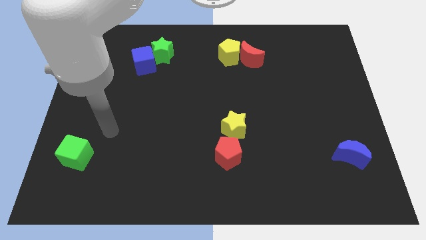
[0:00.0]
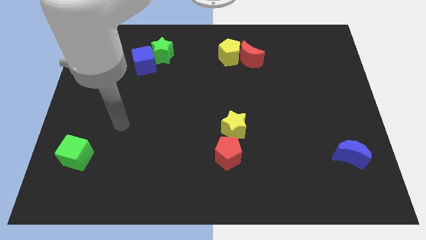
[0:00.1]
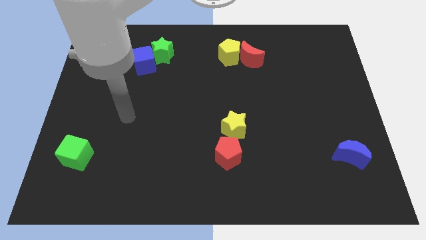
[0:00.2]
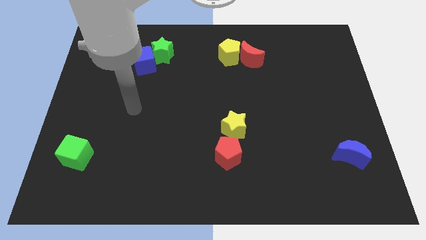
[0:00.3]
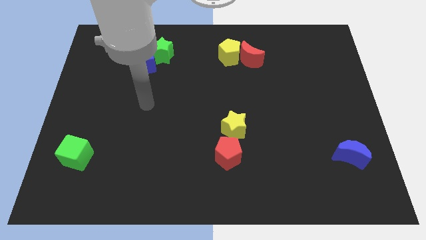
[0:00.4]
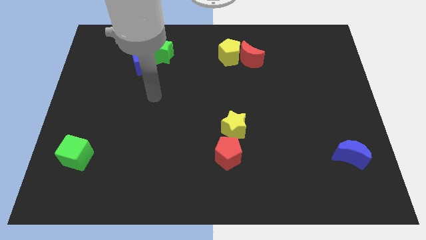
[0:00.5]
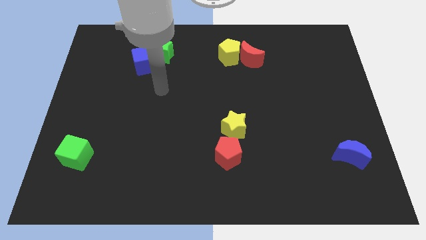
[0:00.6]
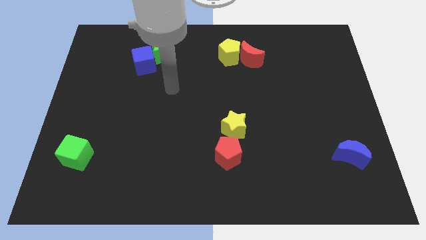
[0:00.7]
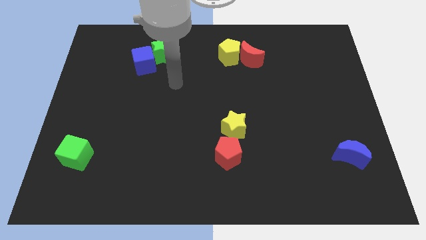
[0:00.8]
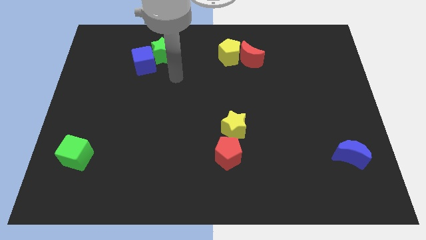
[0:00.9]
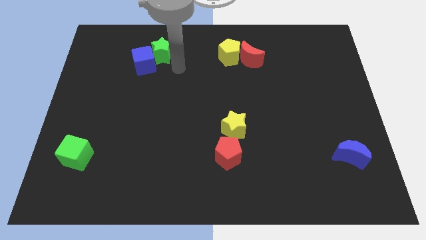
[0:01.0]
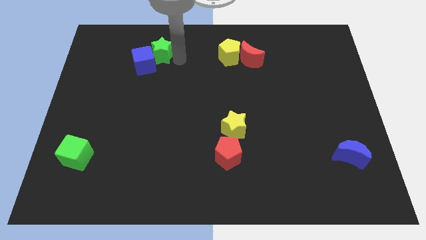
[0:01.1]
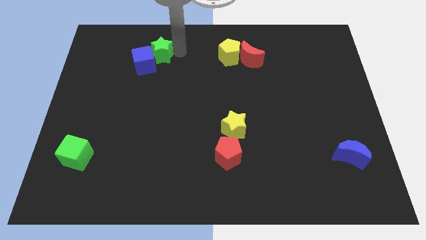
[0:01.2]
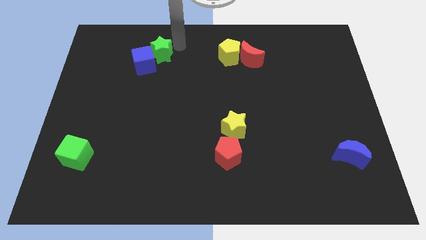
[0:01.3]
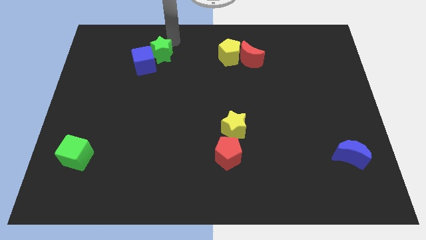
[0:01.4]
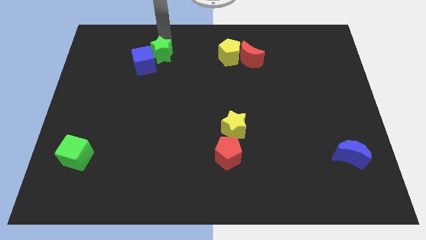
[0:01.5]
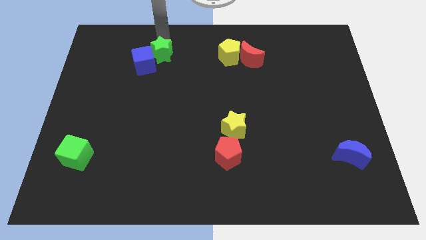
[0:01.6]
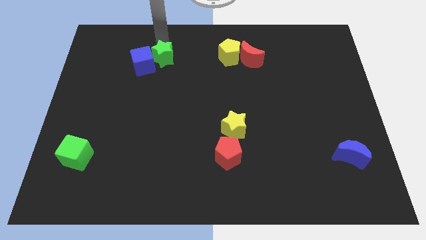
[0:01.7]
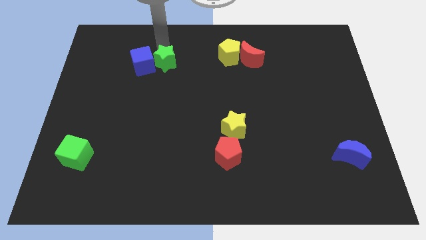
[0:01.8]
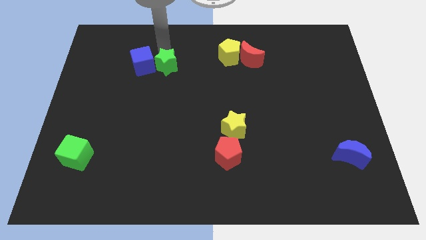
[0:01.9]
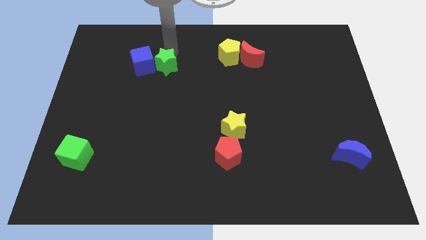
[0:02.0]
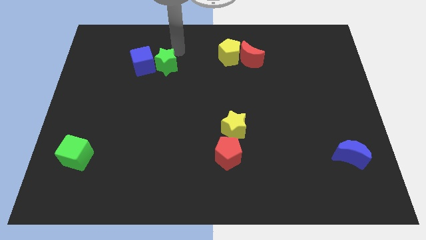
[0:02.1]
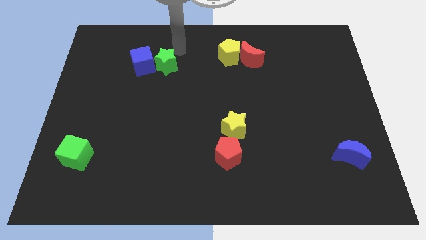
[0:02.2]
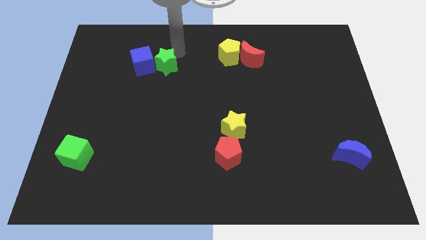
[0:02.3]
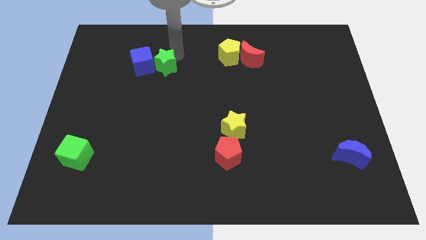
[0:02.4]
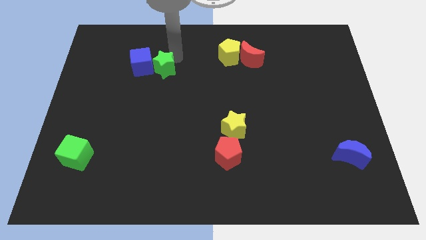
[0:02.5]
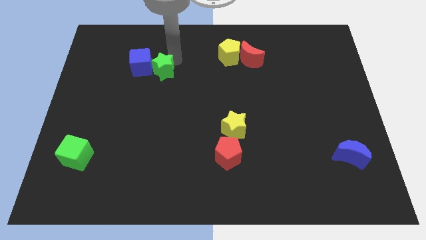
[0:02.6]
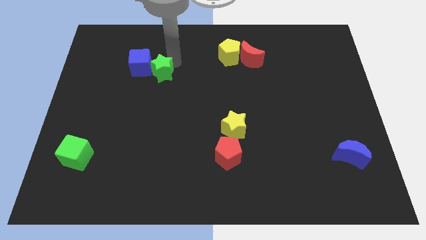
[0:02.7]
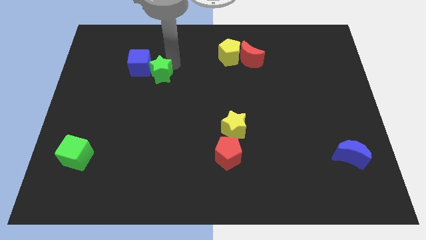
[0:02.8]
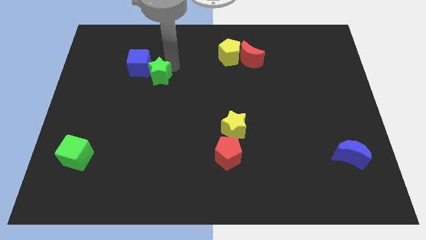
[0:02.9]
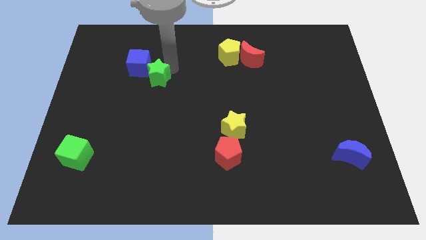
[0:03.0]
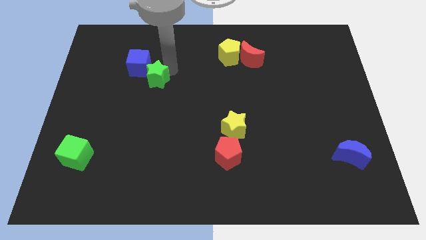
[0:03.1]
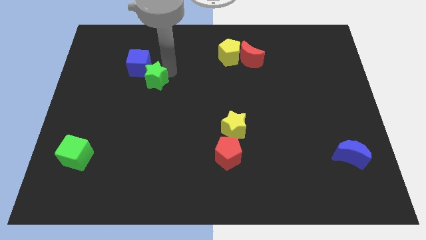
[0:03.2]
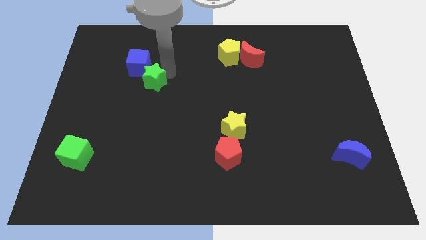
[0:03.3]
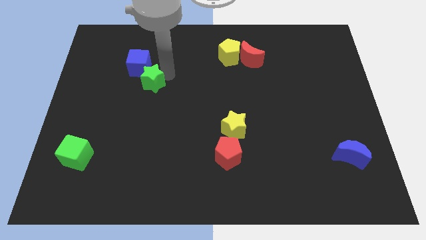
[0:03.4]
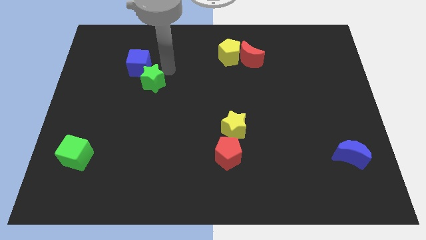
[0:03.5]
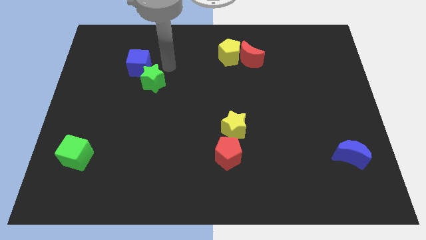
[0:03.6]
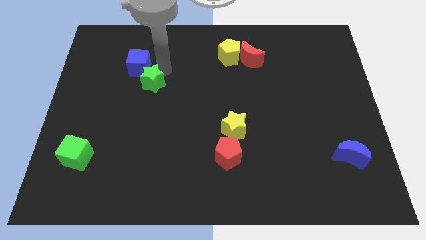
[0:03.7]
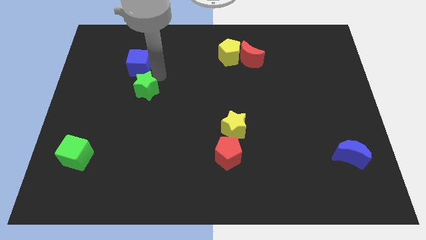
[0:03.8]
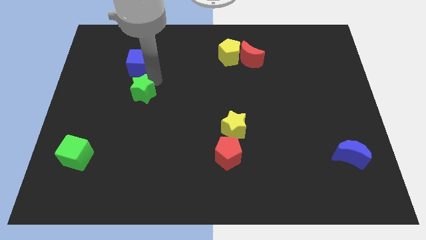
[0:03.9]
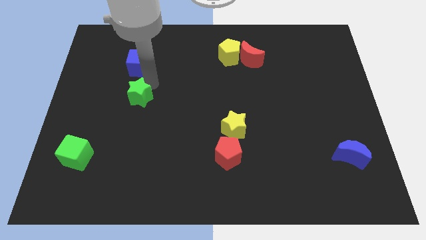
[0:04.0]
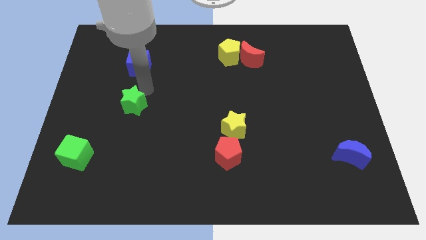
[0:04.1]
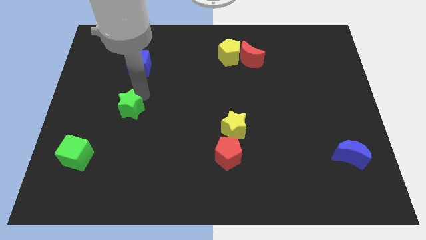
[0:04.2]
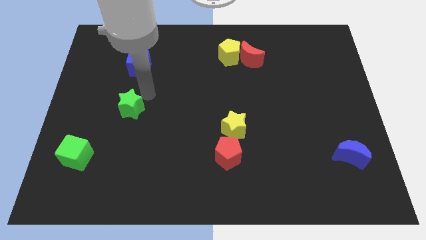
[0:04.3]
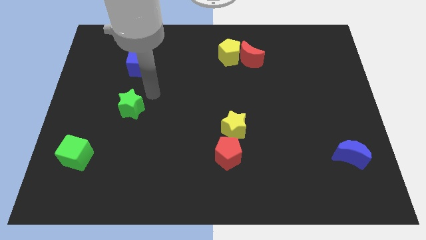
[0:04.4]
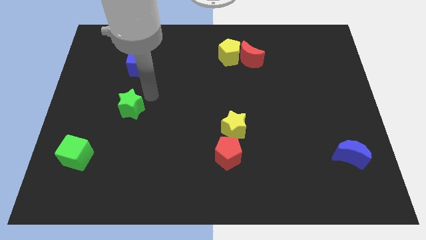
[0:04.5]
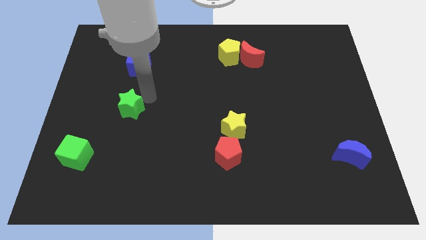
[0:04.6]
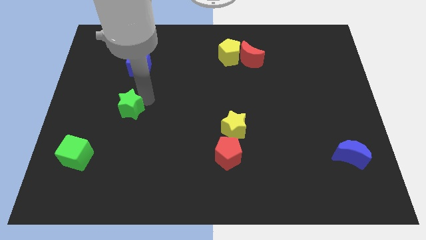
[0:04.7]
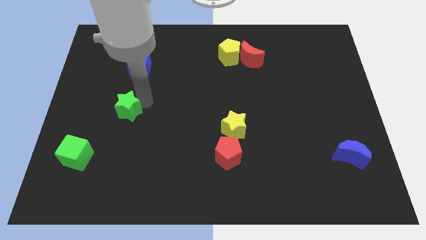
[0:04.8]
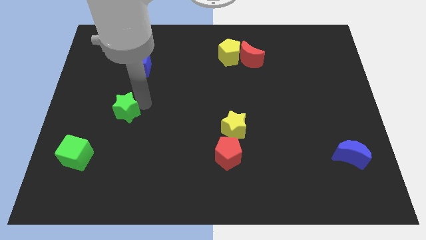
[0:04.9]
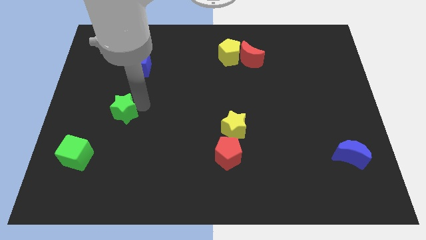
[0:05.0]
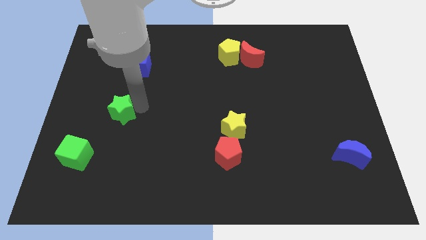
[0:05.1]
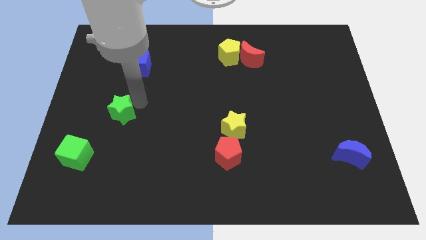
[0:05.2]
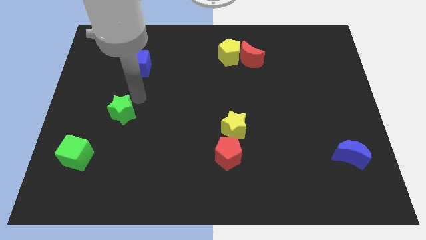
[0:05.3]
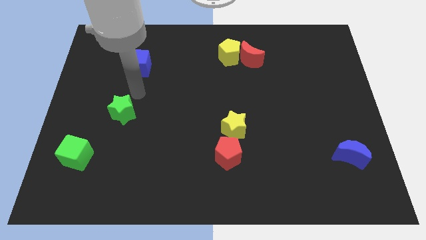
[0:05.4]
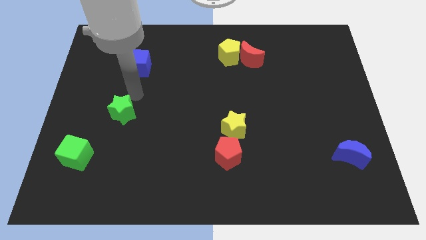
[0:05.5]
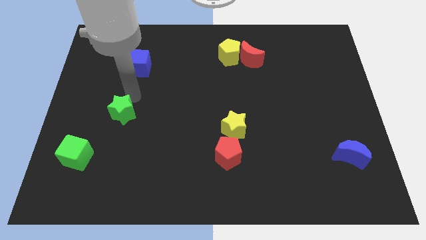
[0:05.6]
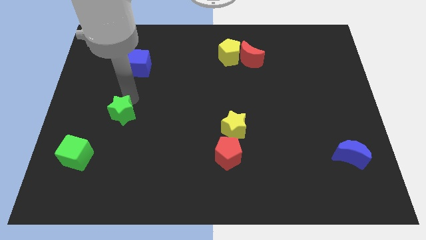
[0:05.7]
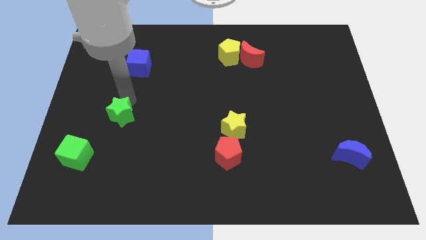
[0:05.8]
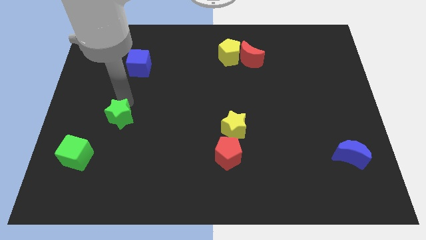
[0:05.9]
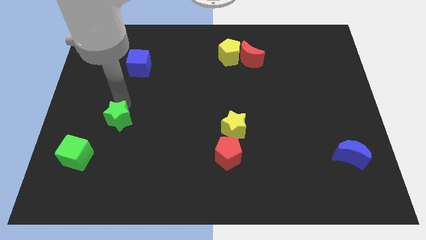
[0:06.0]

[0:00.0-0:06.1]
push the green star to the top right of the green cube

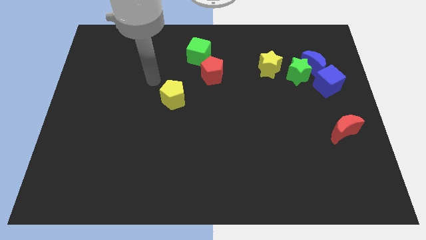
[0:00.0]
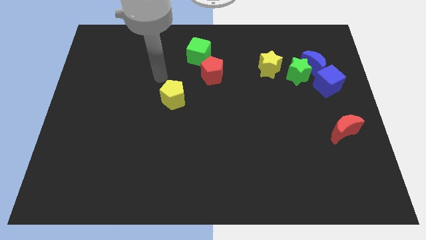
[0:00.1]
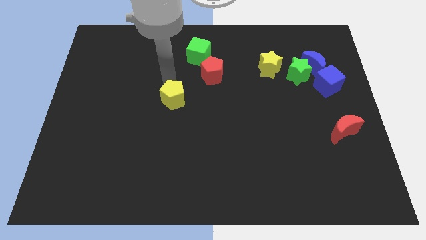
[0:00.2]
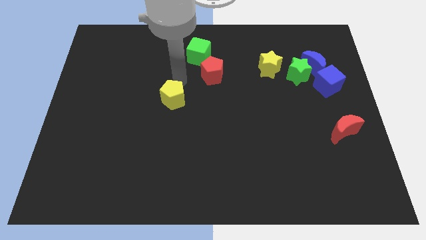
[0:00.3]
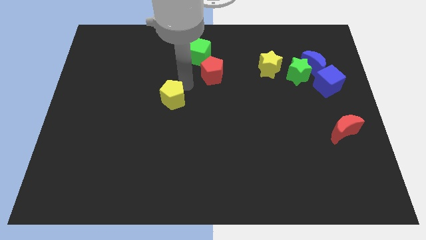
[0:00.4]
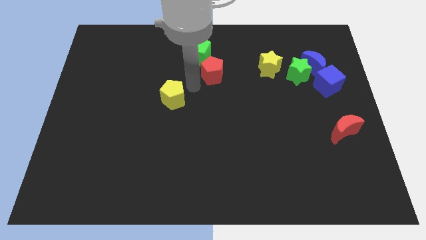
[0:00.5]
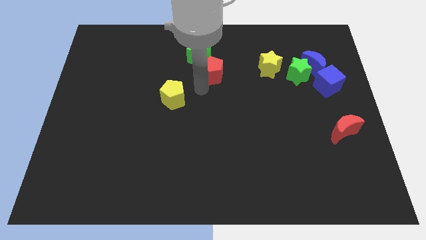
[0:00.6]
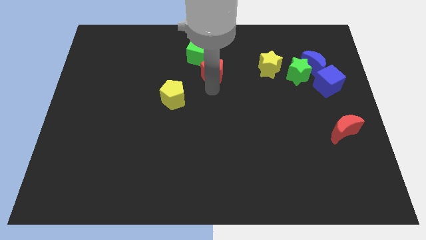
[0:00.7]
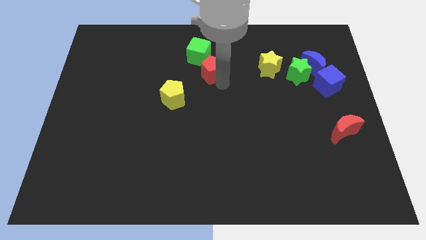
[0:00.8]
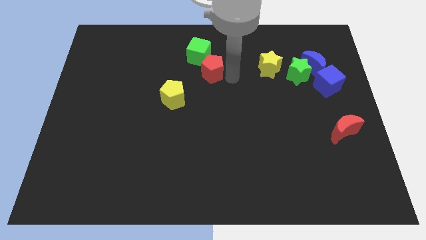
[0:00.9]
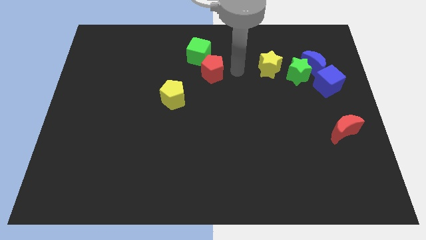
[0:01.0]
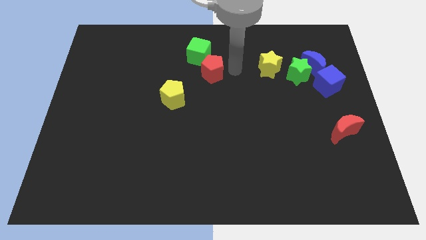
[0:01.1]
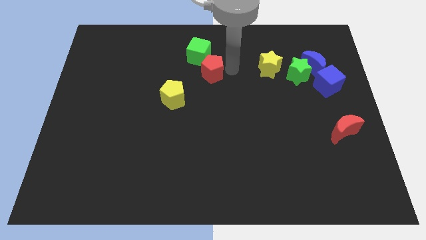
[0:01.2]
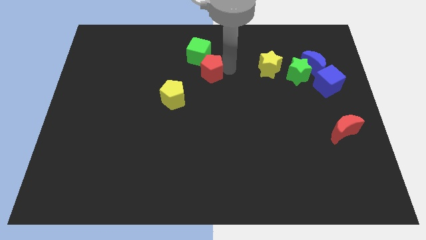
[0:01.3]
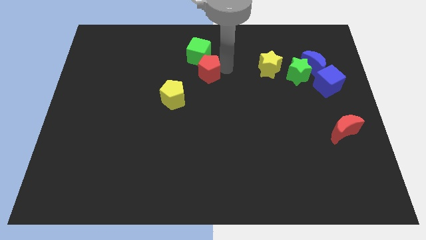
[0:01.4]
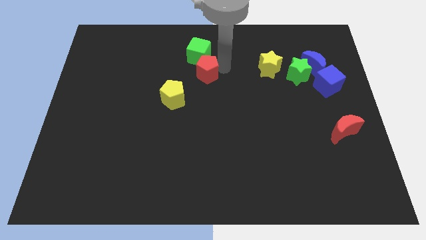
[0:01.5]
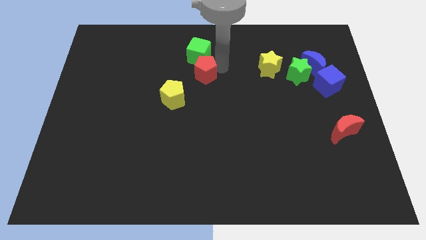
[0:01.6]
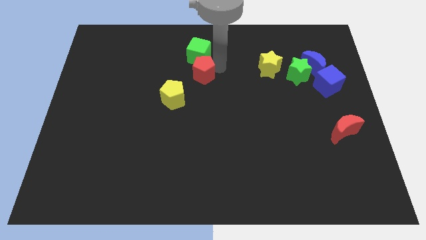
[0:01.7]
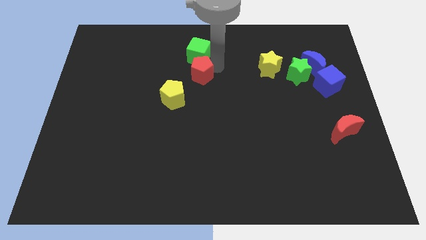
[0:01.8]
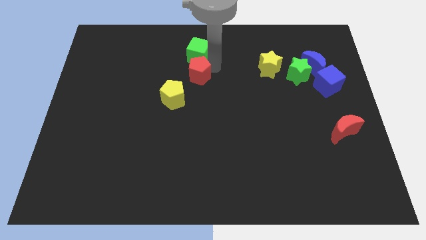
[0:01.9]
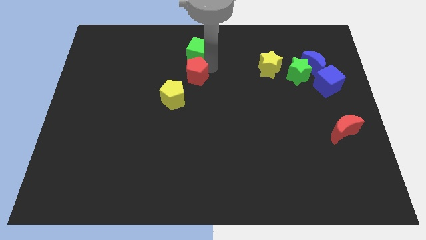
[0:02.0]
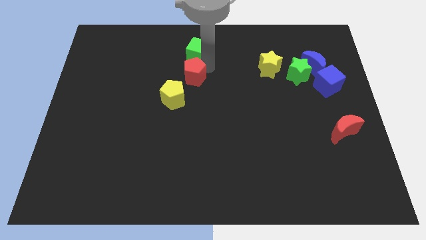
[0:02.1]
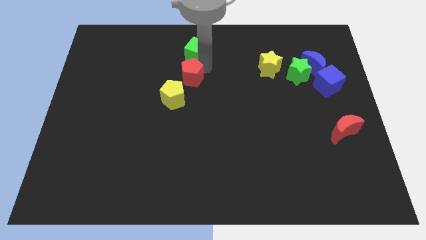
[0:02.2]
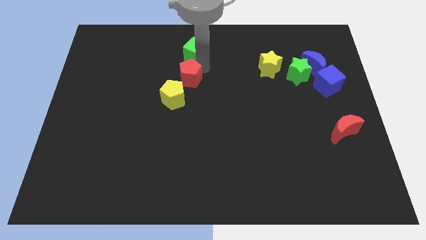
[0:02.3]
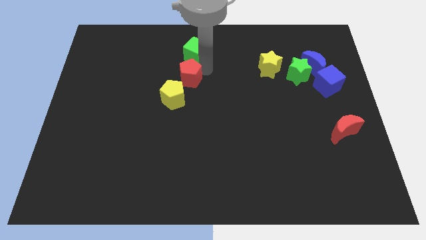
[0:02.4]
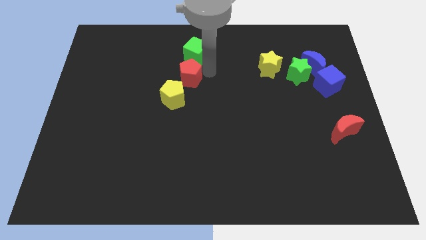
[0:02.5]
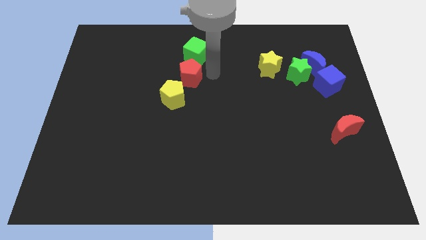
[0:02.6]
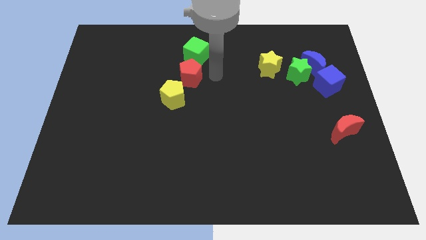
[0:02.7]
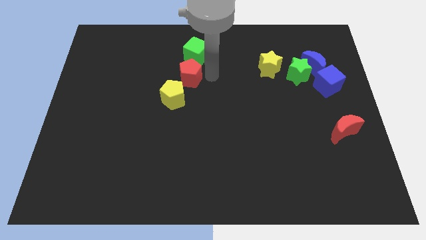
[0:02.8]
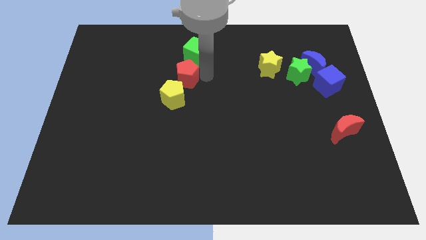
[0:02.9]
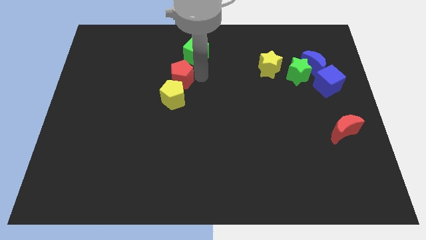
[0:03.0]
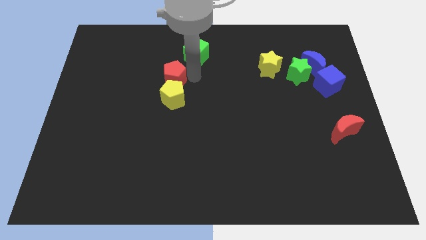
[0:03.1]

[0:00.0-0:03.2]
slide the red pentagon to the top left side of the yellow pentagon
